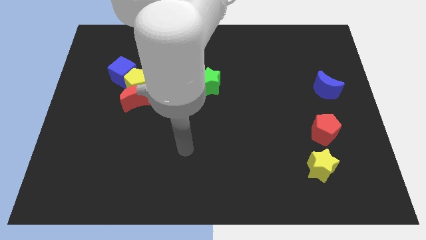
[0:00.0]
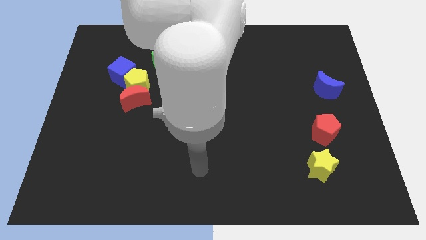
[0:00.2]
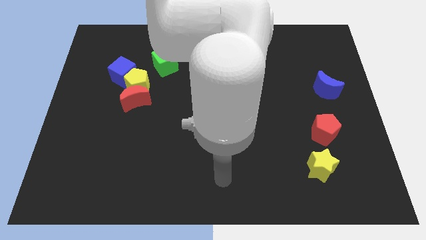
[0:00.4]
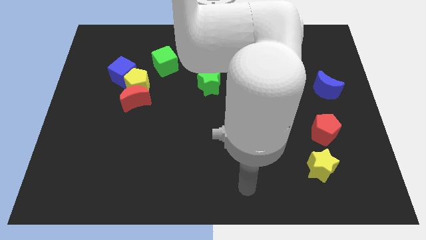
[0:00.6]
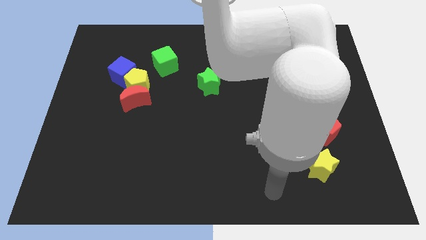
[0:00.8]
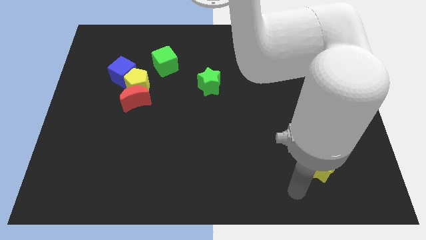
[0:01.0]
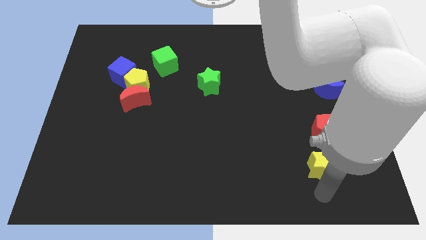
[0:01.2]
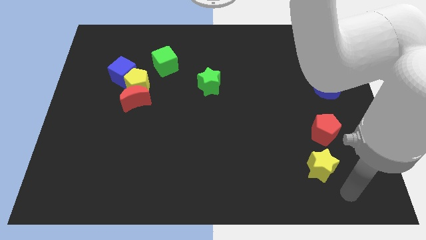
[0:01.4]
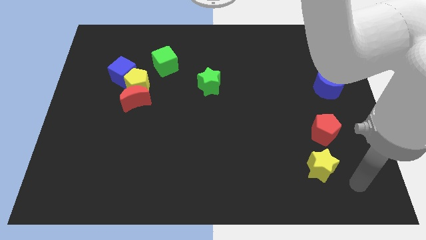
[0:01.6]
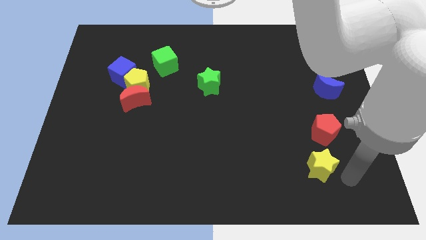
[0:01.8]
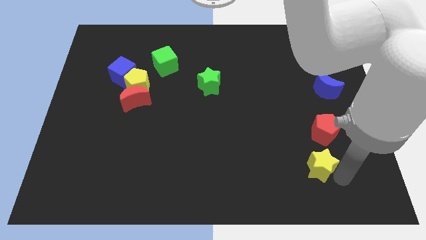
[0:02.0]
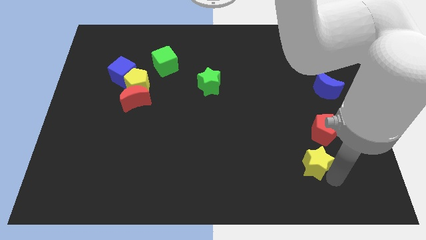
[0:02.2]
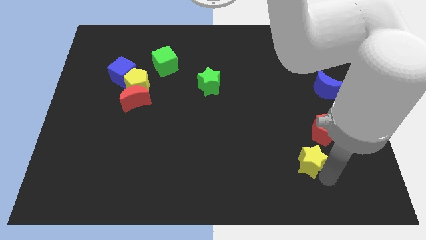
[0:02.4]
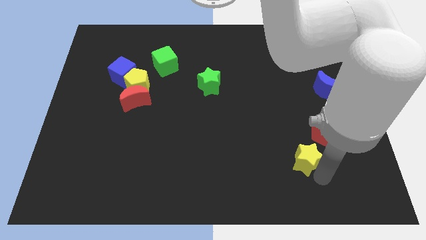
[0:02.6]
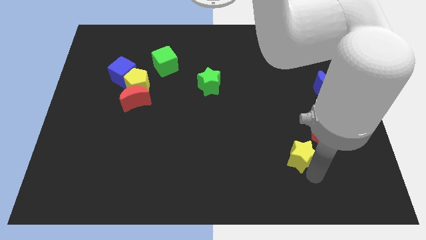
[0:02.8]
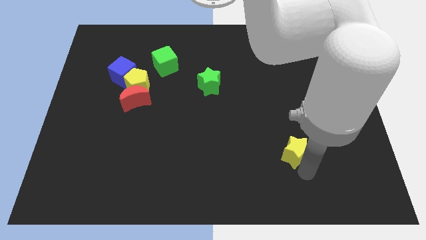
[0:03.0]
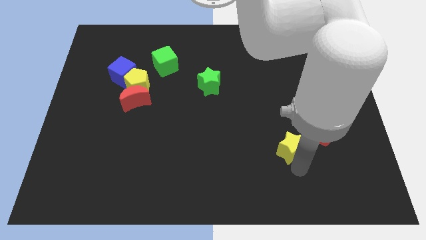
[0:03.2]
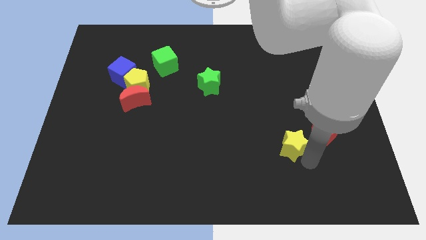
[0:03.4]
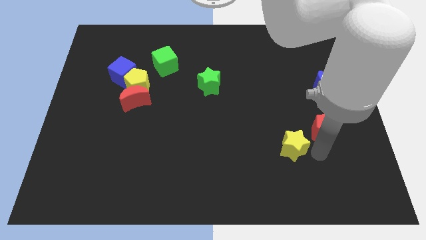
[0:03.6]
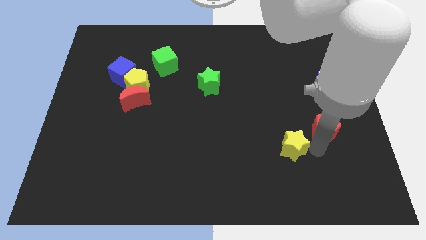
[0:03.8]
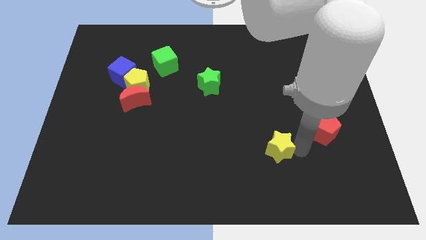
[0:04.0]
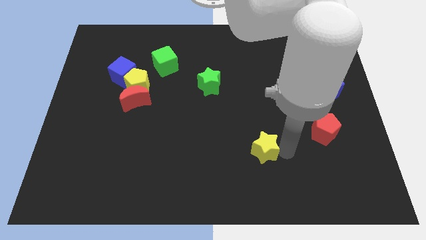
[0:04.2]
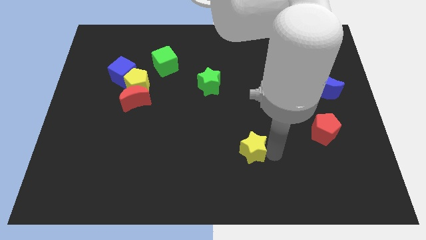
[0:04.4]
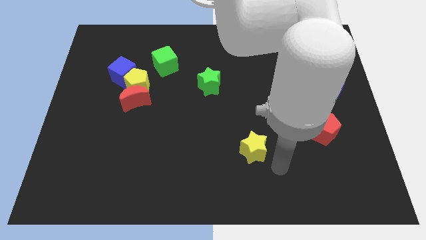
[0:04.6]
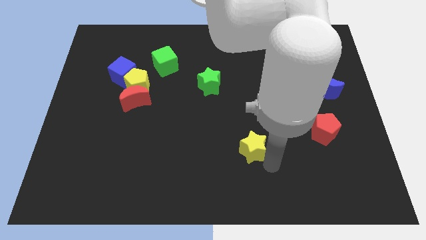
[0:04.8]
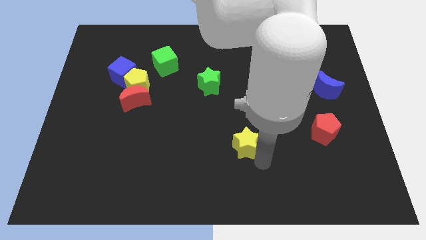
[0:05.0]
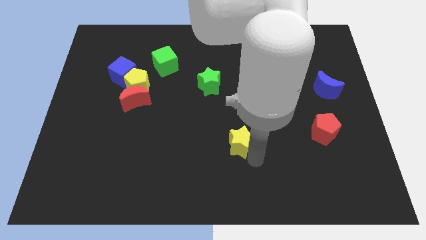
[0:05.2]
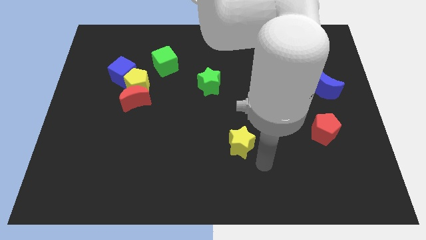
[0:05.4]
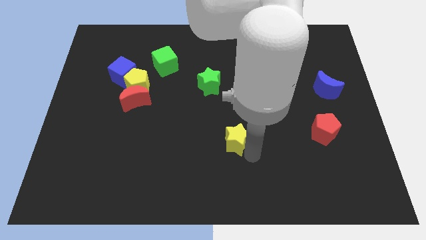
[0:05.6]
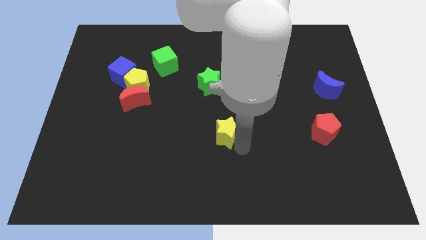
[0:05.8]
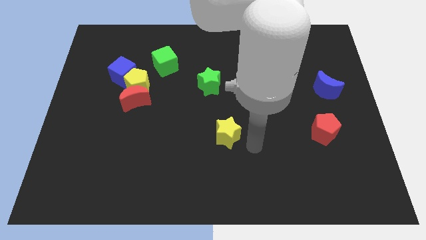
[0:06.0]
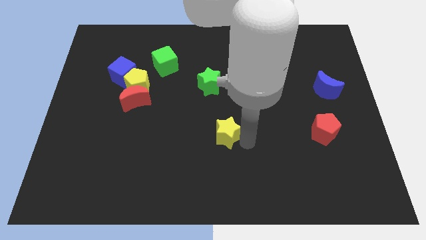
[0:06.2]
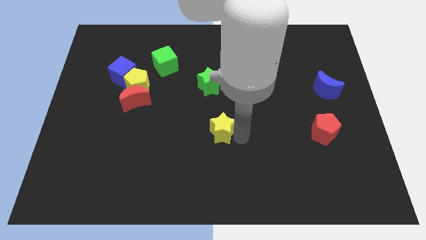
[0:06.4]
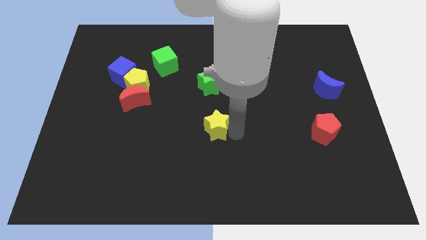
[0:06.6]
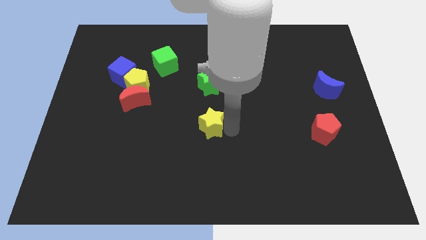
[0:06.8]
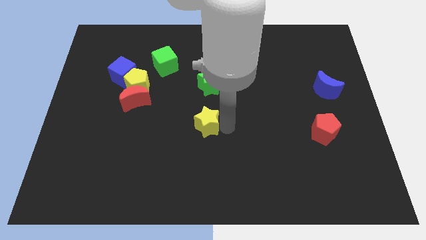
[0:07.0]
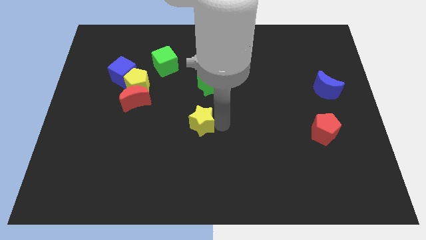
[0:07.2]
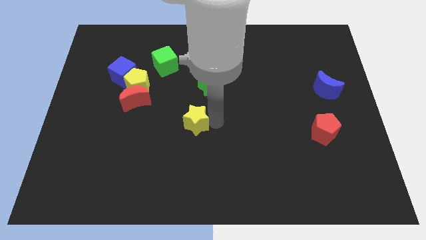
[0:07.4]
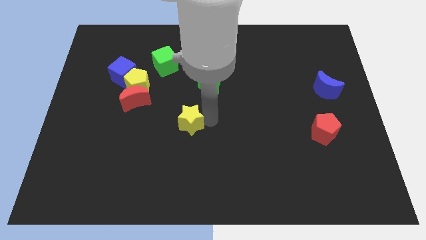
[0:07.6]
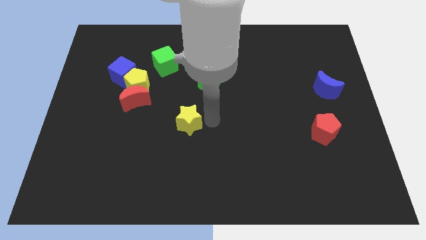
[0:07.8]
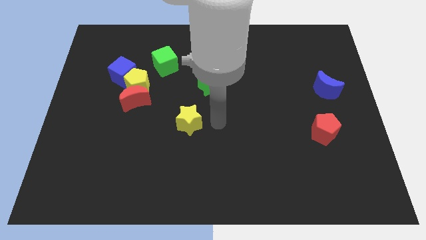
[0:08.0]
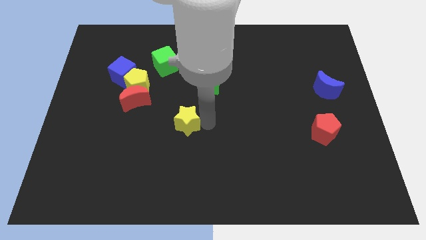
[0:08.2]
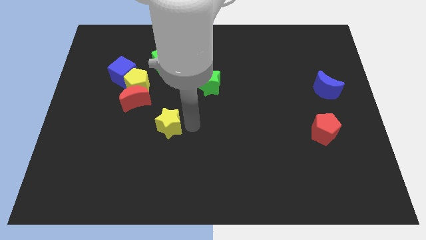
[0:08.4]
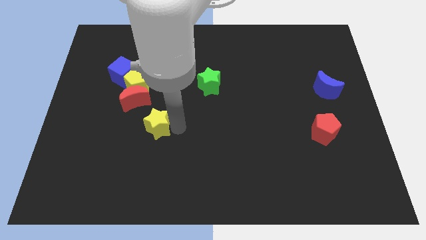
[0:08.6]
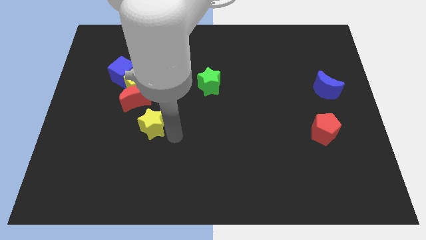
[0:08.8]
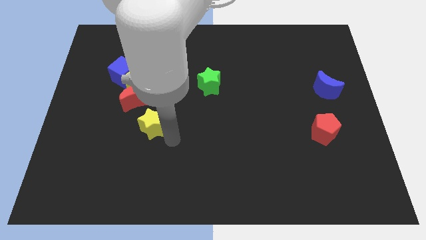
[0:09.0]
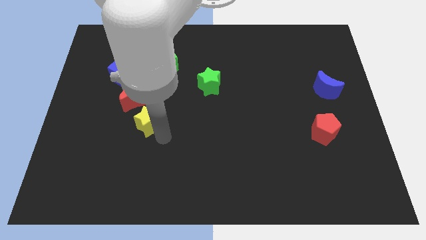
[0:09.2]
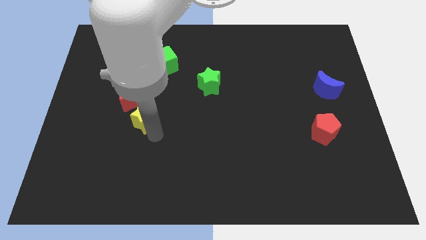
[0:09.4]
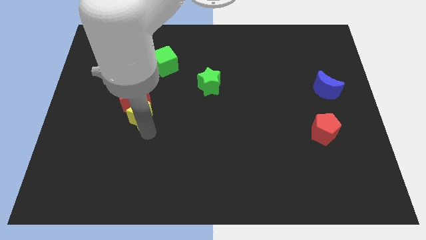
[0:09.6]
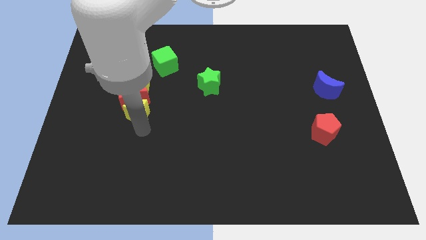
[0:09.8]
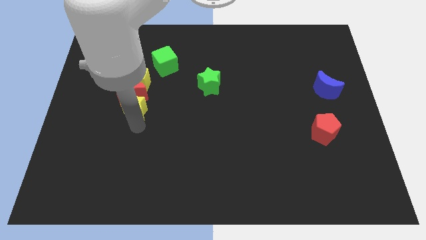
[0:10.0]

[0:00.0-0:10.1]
put the yellow star to the bottom side of the blue cube

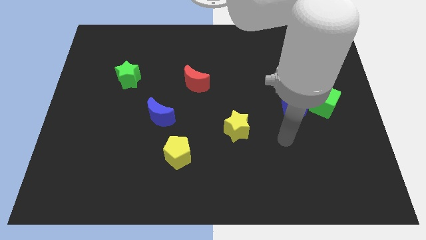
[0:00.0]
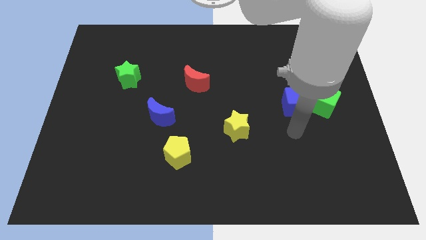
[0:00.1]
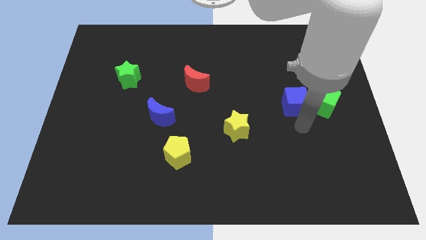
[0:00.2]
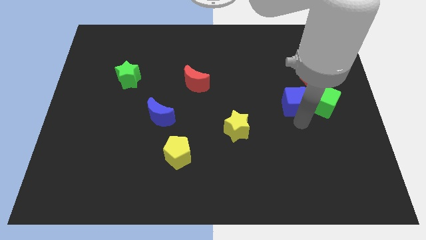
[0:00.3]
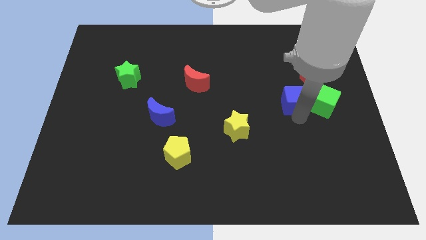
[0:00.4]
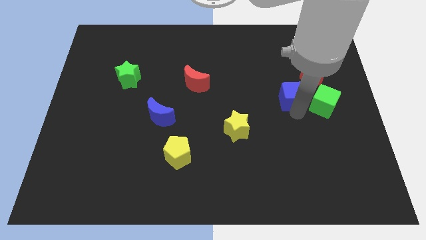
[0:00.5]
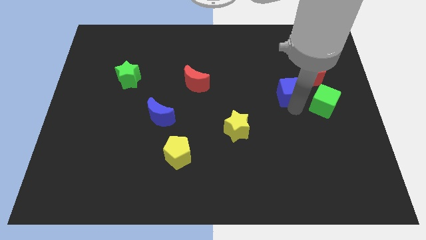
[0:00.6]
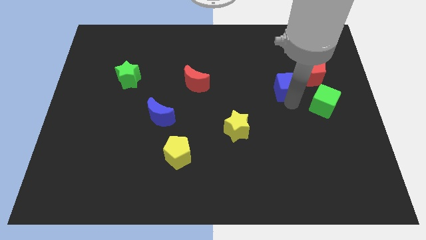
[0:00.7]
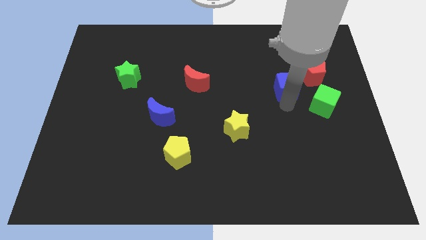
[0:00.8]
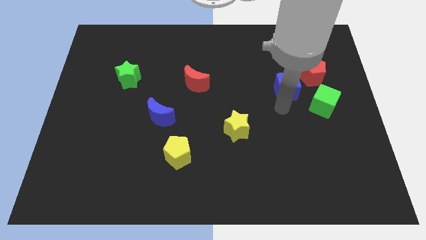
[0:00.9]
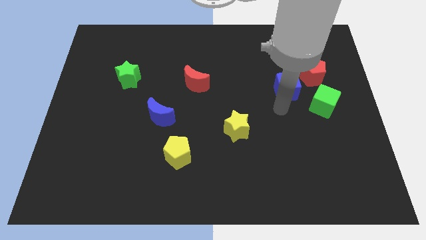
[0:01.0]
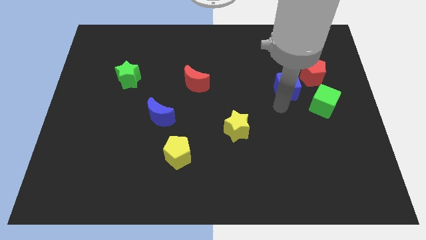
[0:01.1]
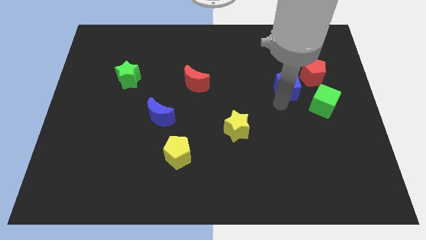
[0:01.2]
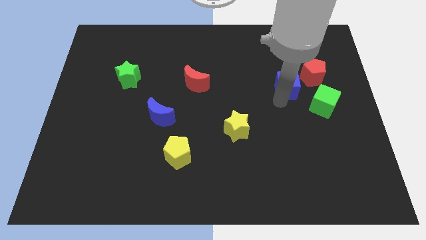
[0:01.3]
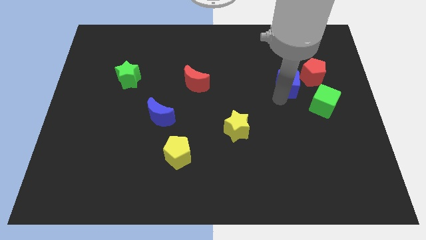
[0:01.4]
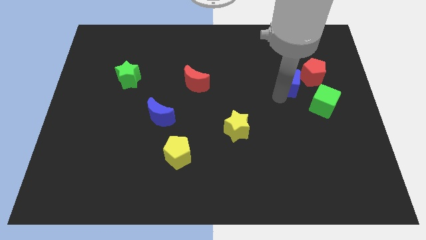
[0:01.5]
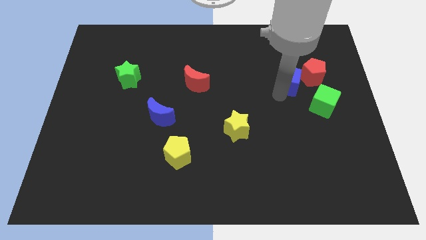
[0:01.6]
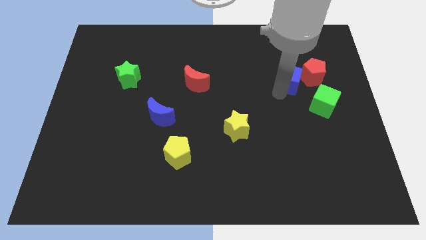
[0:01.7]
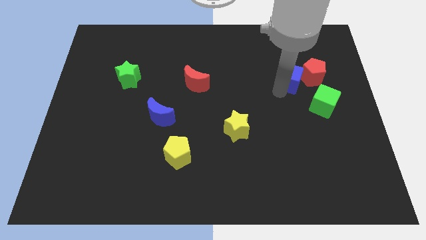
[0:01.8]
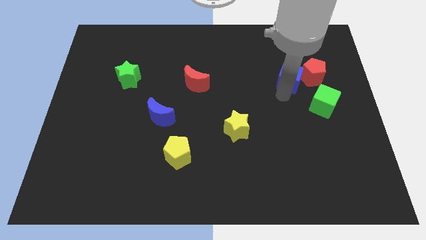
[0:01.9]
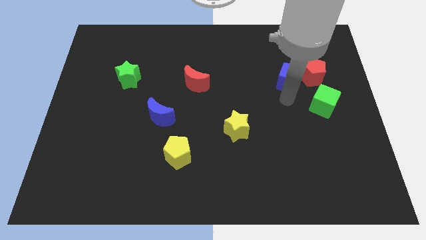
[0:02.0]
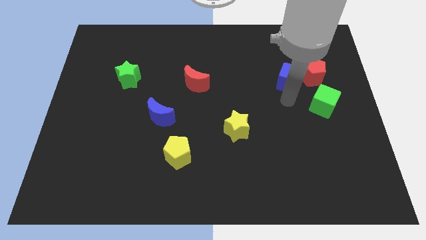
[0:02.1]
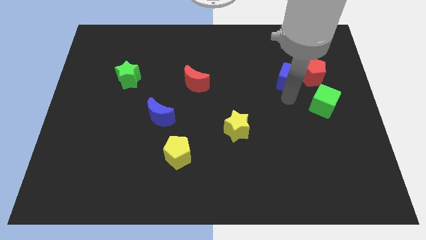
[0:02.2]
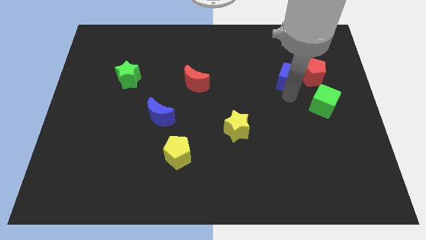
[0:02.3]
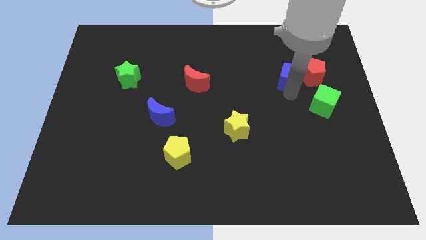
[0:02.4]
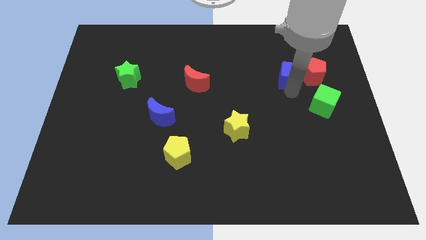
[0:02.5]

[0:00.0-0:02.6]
move the blue cube to the top left of the red pentagon
